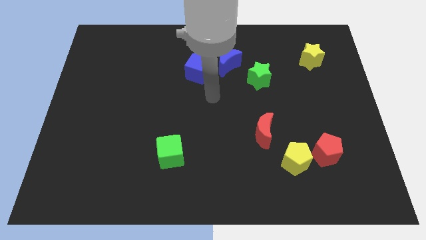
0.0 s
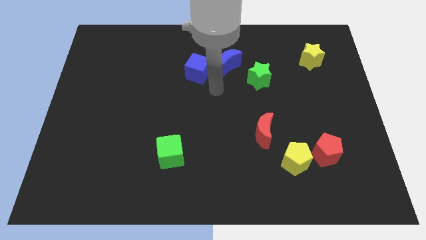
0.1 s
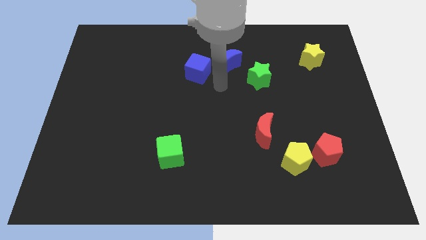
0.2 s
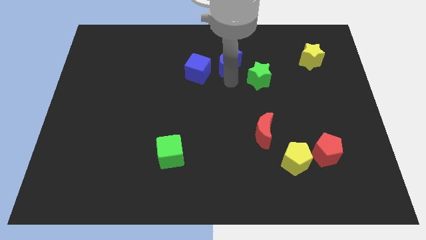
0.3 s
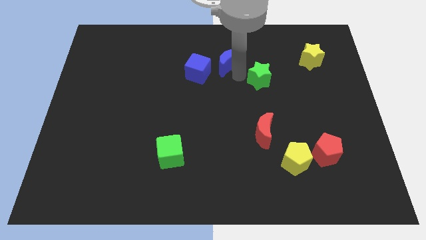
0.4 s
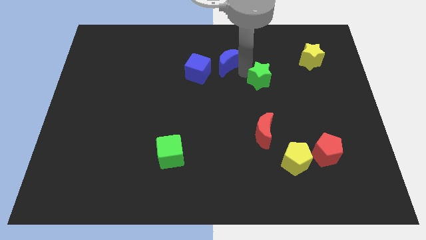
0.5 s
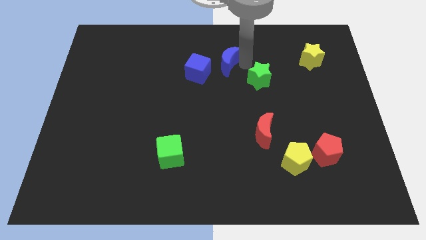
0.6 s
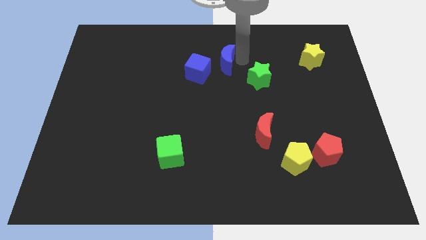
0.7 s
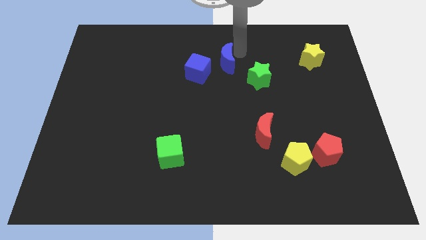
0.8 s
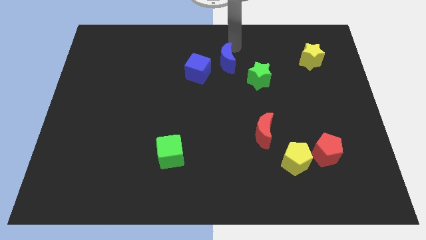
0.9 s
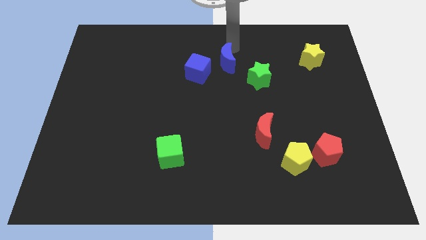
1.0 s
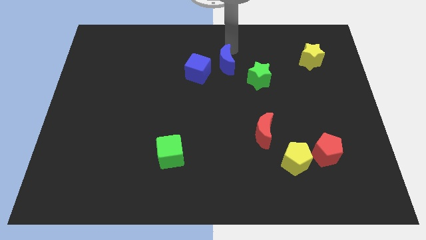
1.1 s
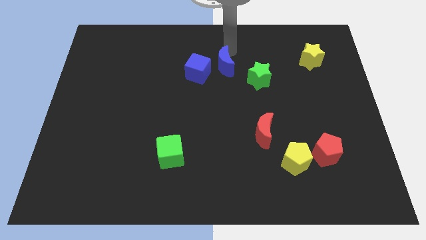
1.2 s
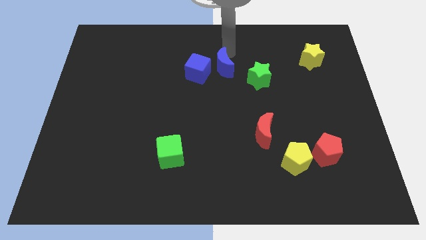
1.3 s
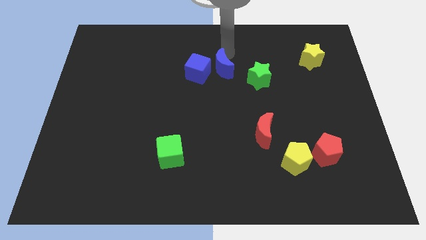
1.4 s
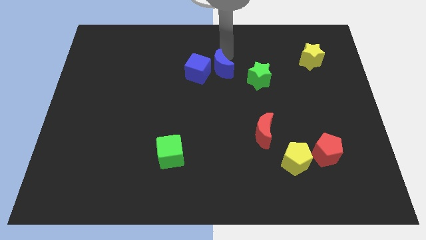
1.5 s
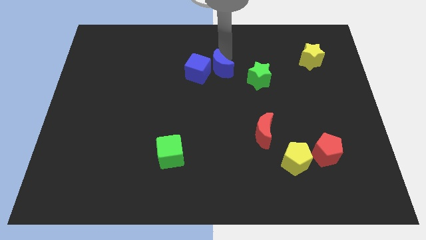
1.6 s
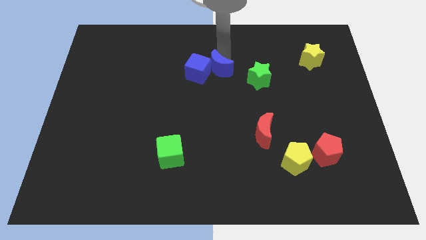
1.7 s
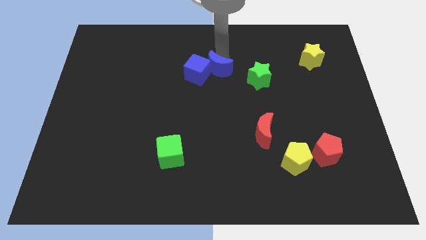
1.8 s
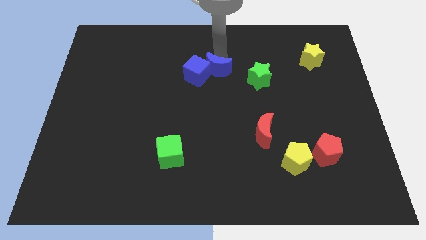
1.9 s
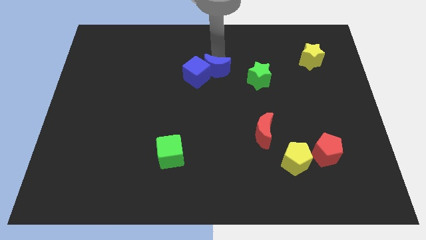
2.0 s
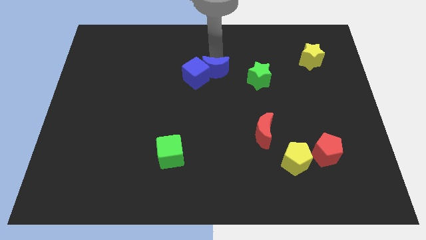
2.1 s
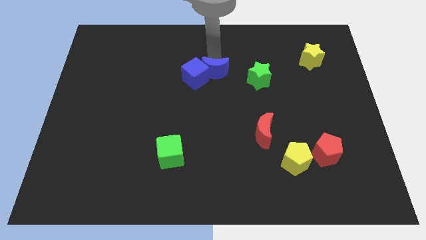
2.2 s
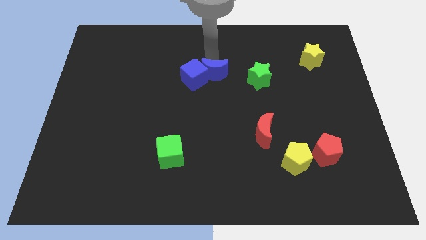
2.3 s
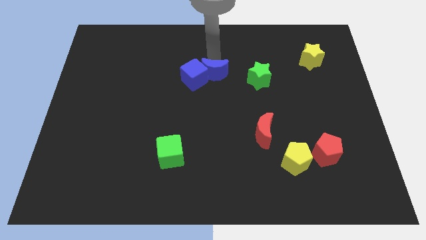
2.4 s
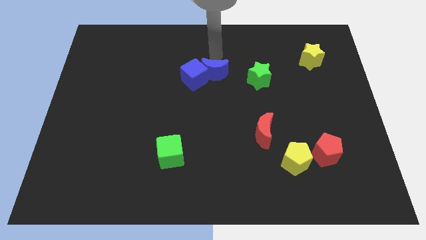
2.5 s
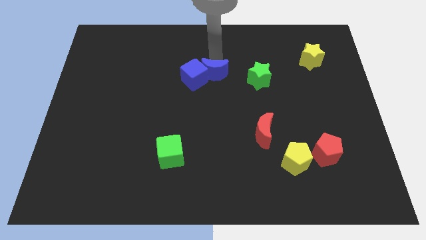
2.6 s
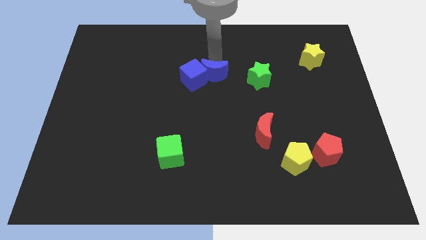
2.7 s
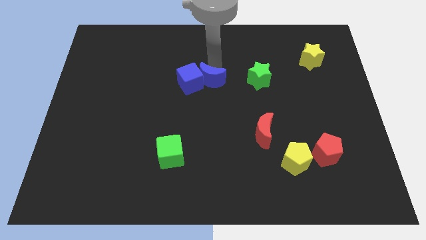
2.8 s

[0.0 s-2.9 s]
move the blue moon a little downwards and then left

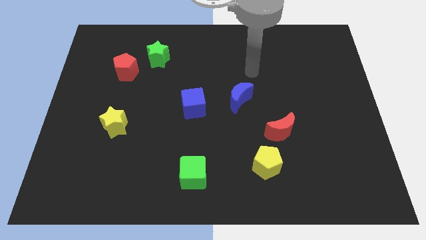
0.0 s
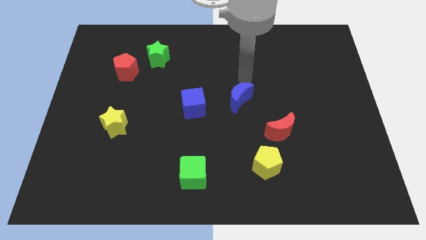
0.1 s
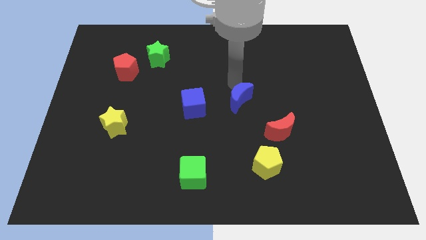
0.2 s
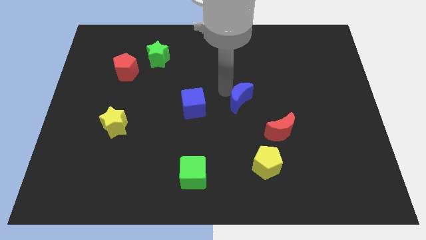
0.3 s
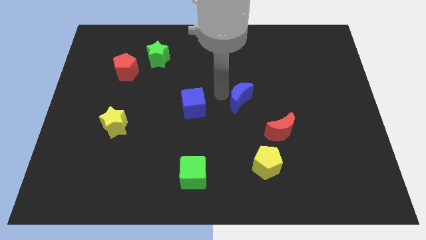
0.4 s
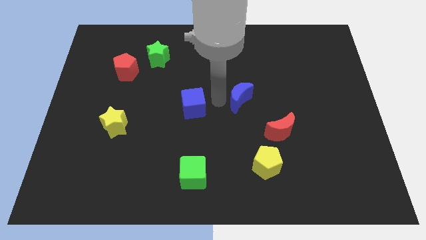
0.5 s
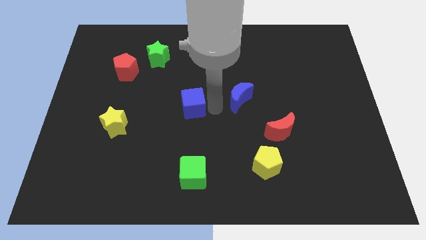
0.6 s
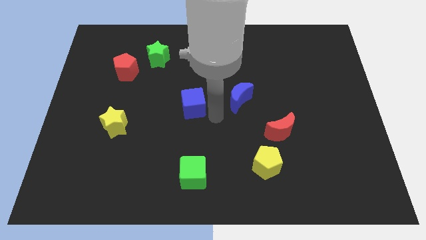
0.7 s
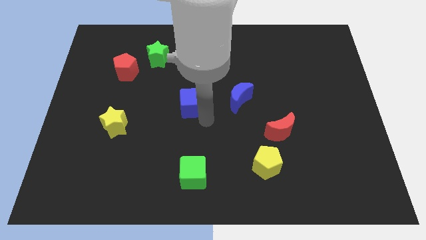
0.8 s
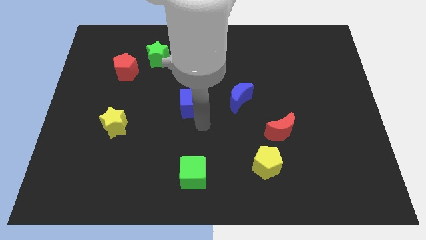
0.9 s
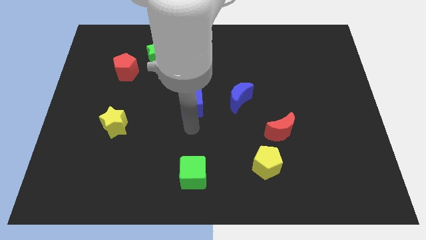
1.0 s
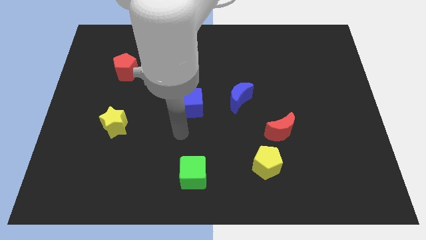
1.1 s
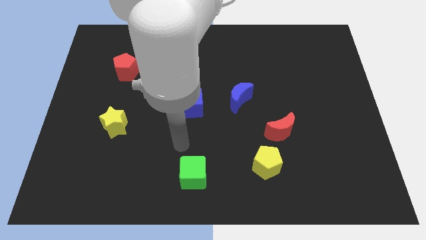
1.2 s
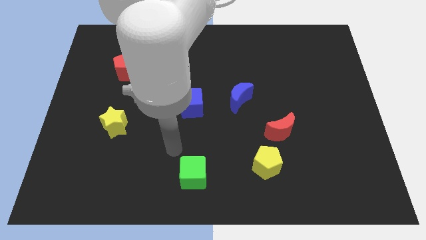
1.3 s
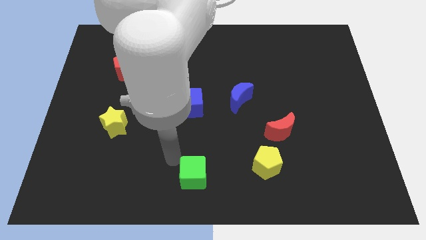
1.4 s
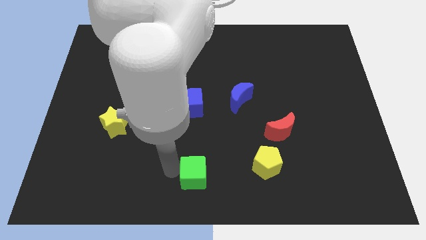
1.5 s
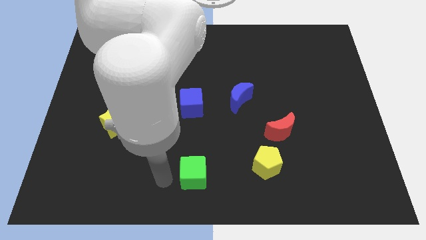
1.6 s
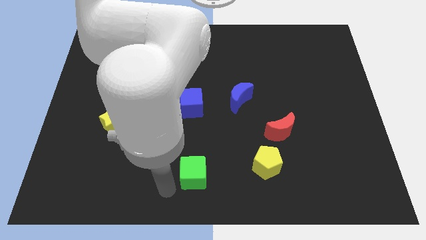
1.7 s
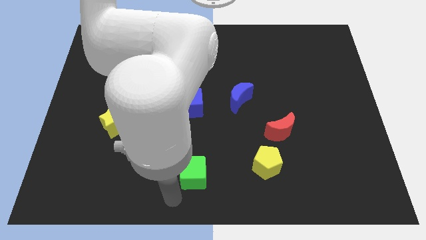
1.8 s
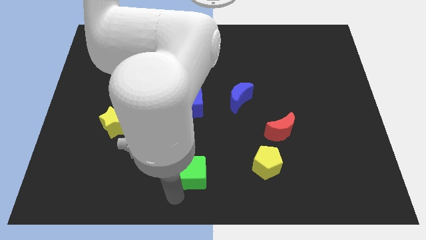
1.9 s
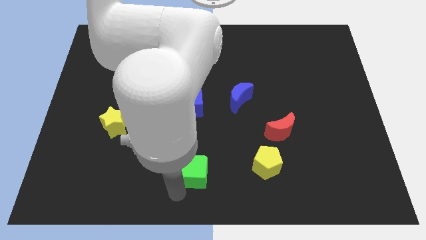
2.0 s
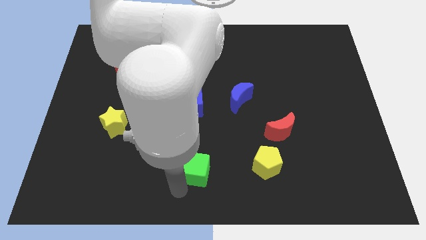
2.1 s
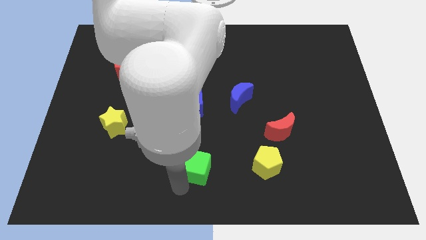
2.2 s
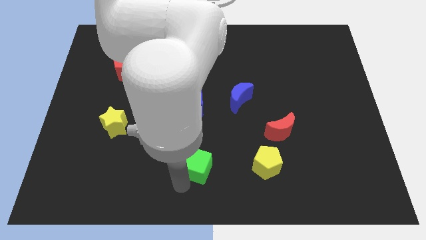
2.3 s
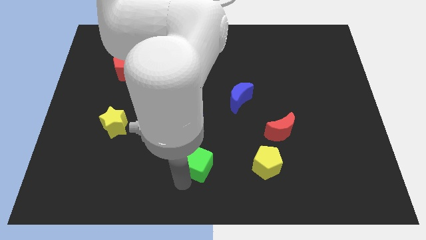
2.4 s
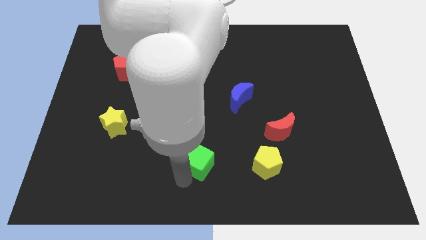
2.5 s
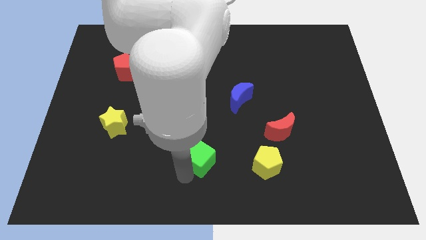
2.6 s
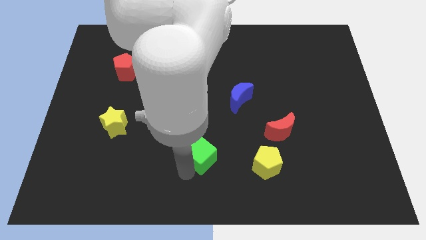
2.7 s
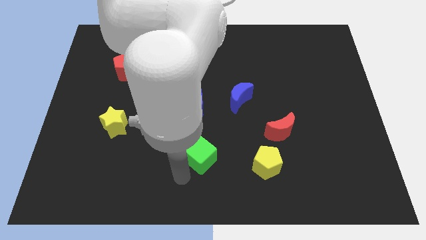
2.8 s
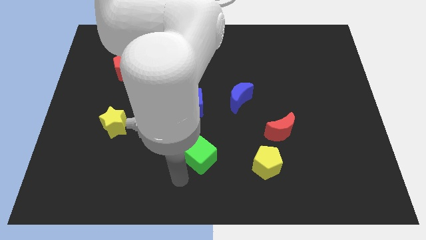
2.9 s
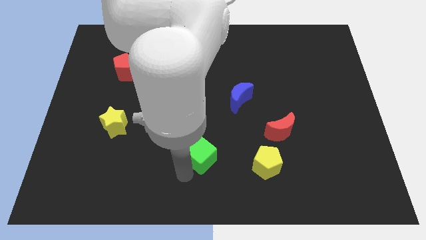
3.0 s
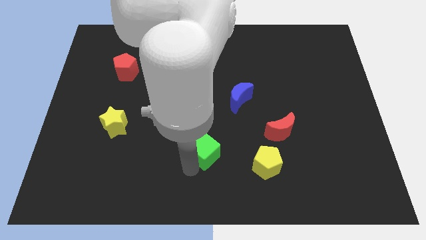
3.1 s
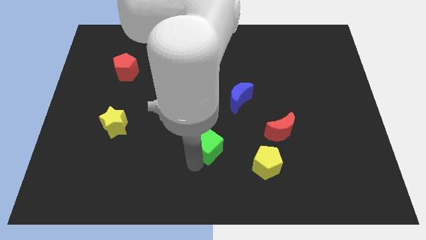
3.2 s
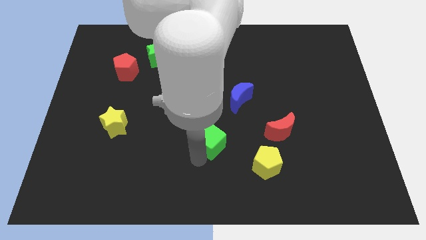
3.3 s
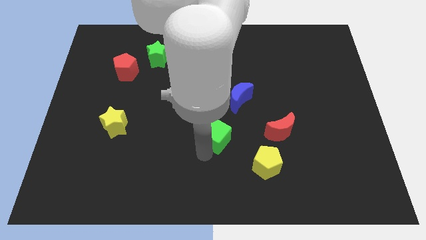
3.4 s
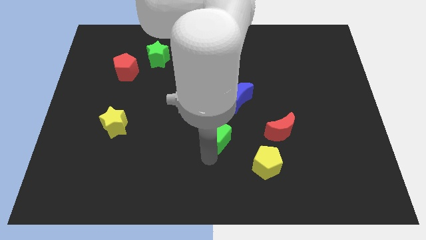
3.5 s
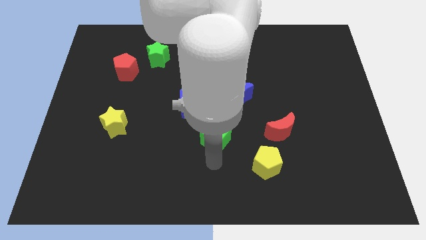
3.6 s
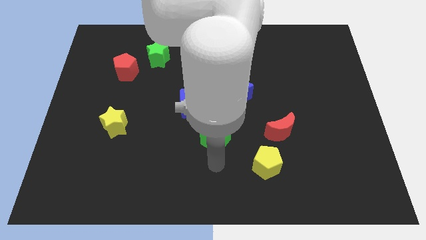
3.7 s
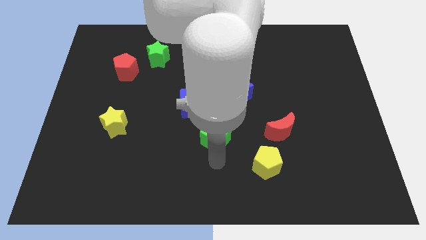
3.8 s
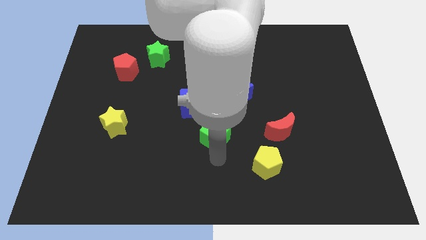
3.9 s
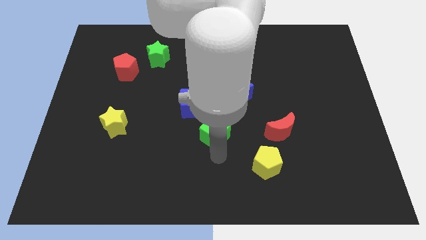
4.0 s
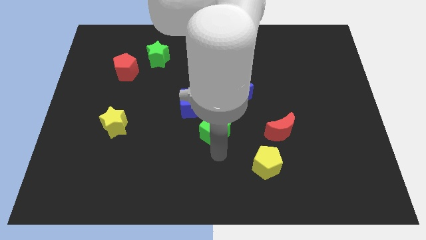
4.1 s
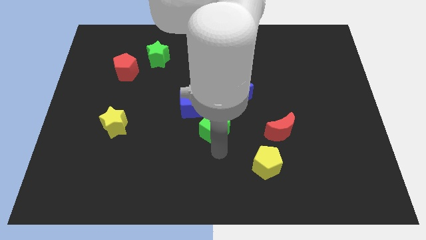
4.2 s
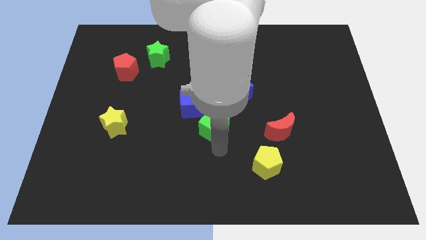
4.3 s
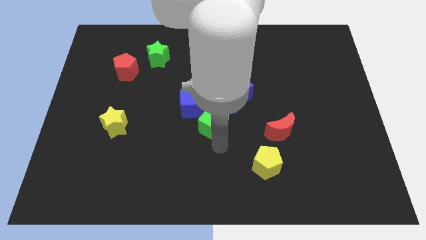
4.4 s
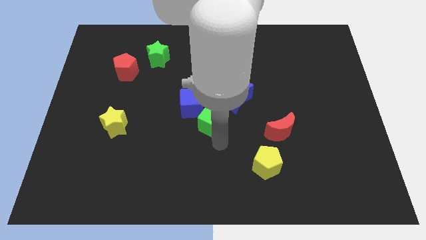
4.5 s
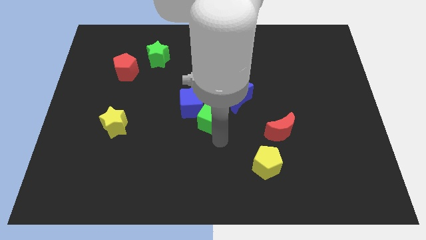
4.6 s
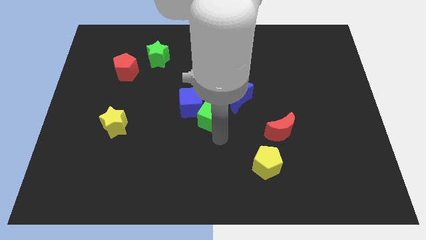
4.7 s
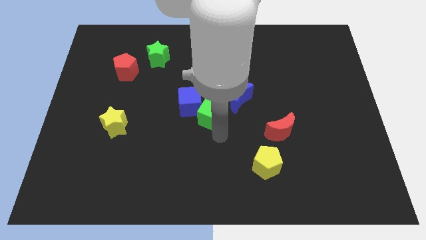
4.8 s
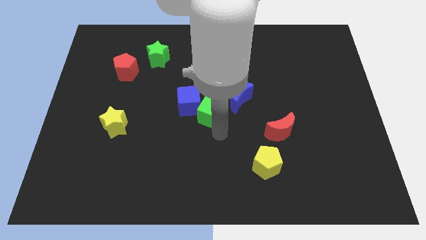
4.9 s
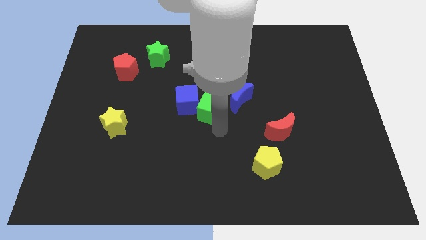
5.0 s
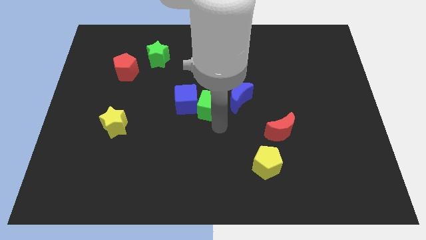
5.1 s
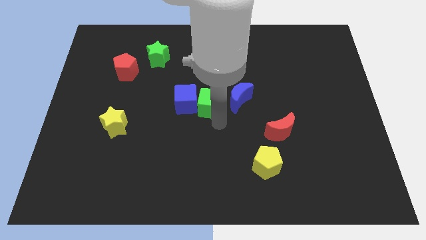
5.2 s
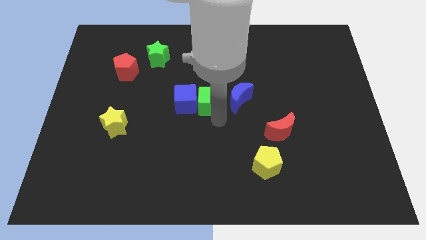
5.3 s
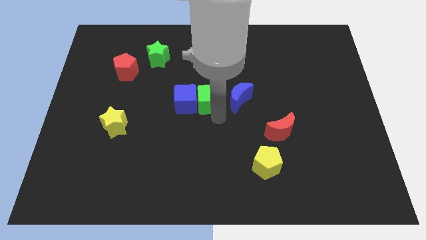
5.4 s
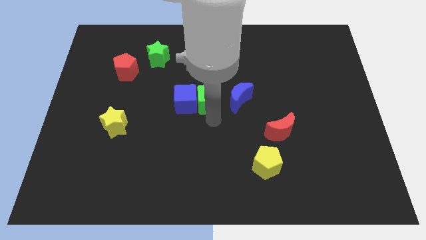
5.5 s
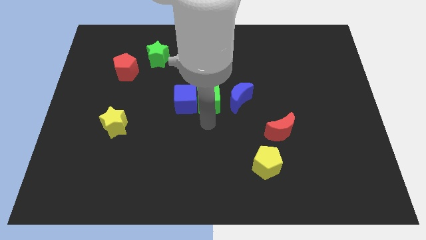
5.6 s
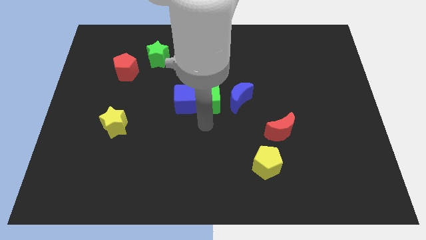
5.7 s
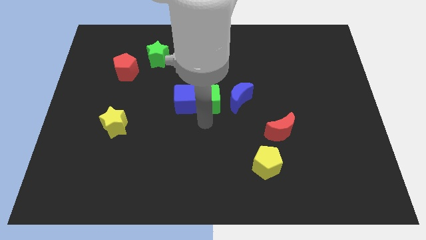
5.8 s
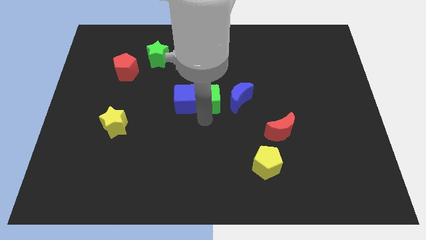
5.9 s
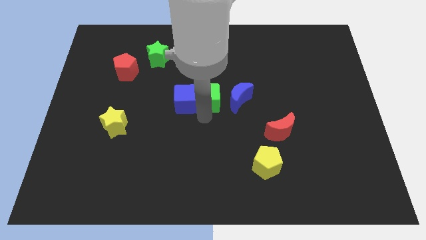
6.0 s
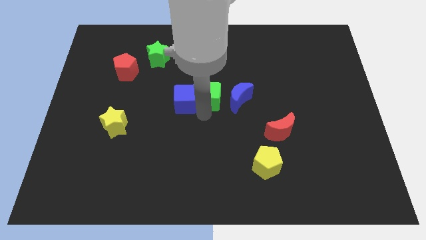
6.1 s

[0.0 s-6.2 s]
slide the green cube up
